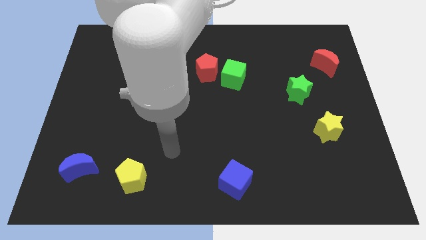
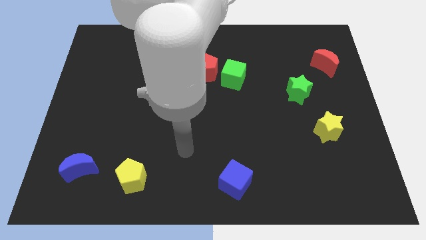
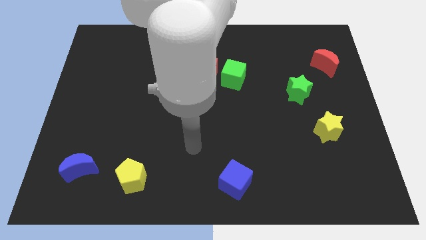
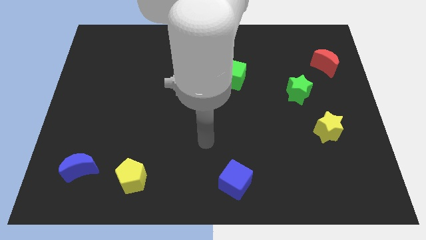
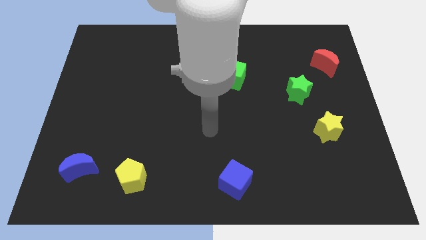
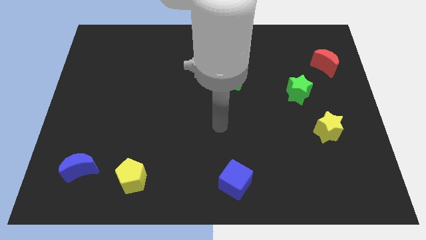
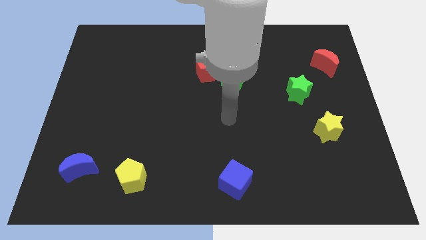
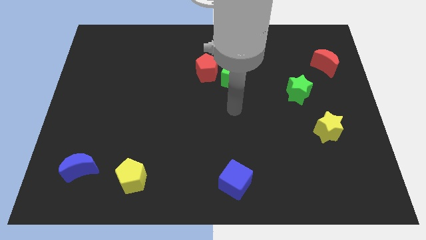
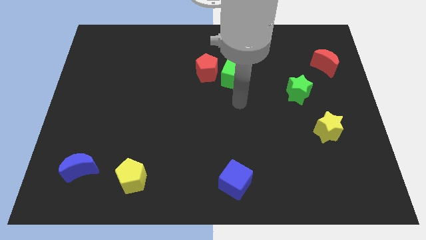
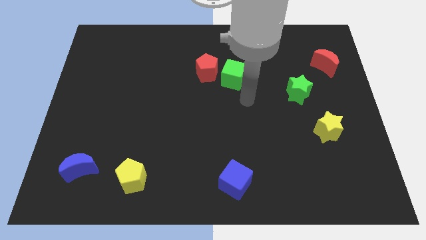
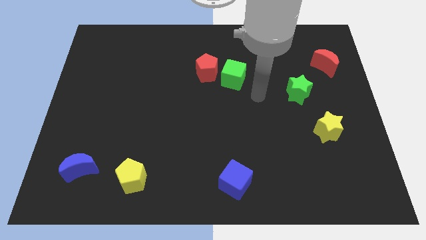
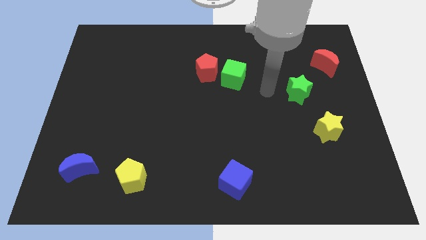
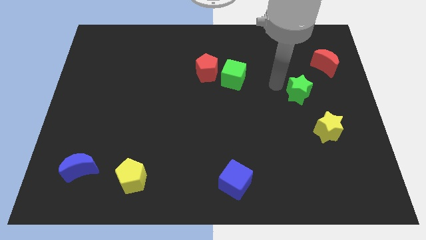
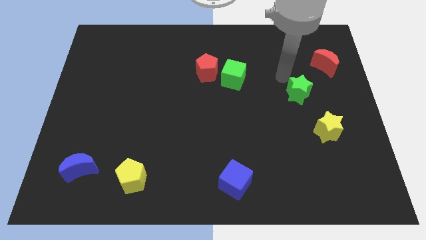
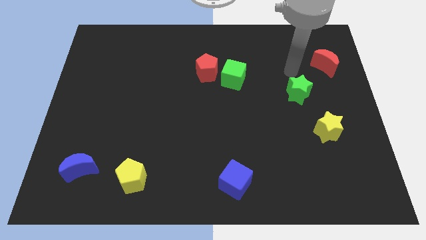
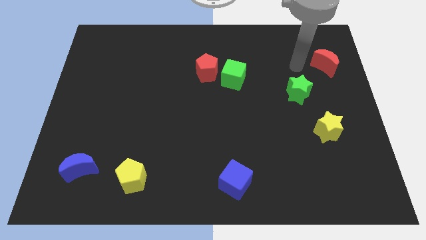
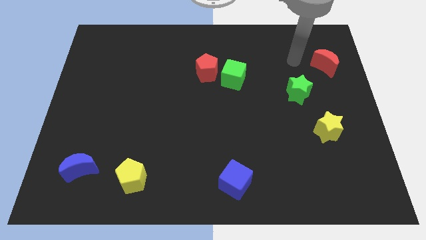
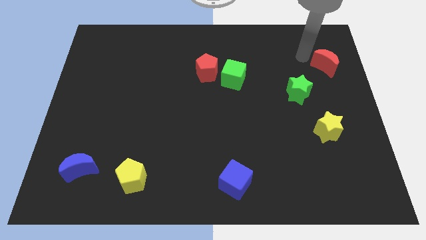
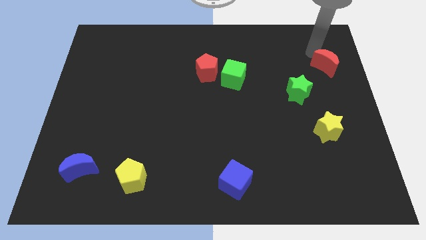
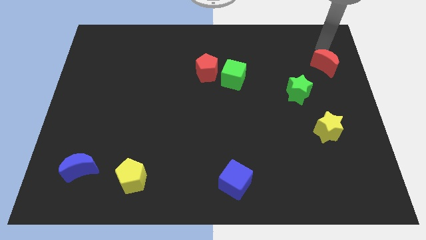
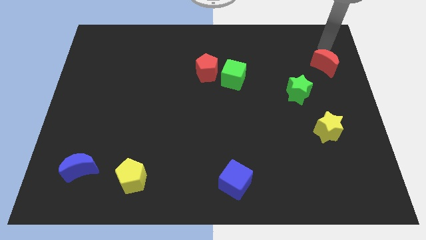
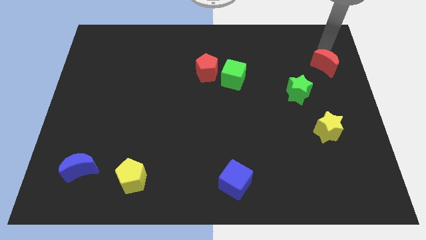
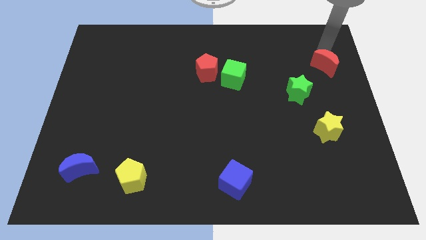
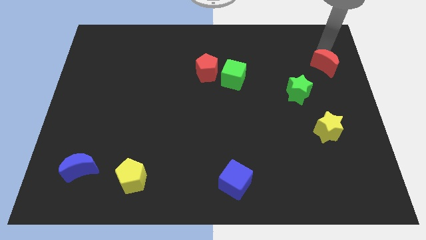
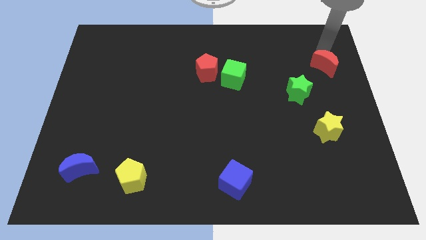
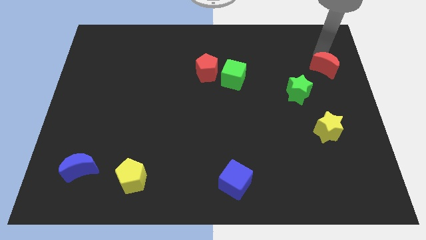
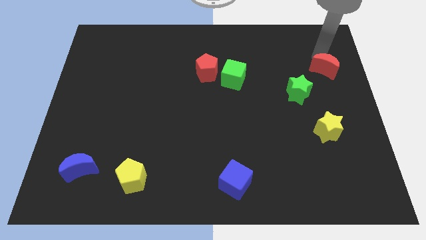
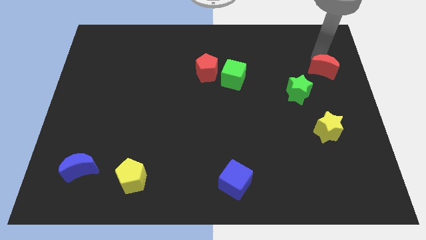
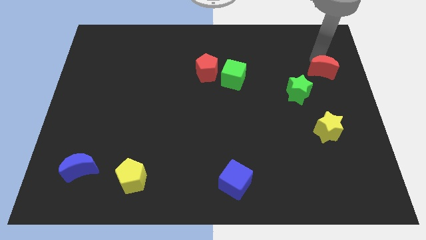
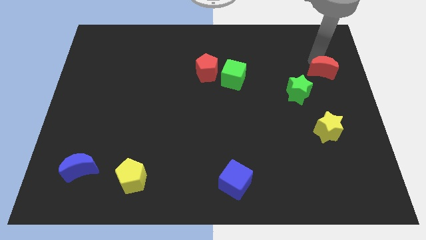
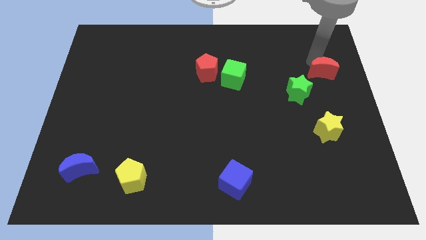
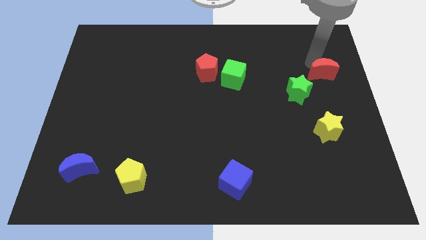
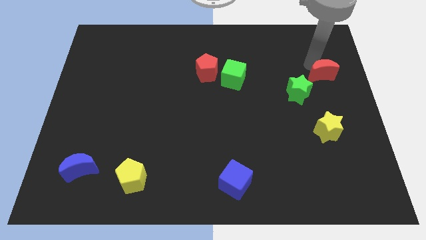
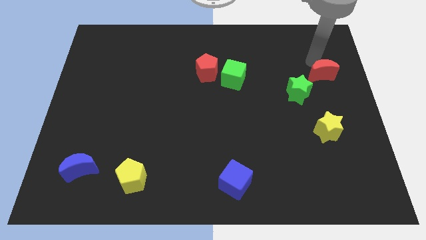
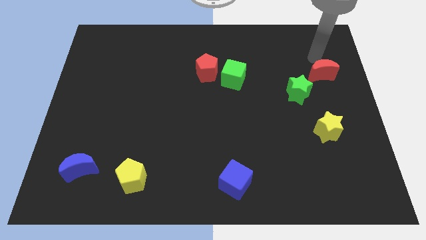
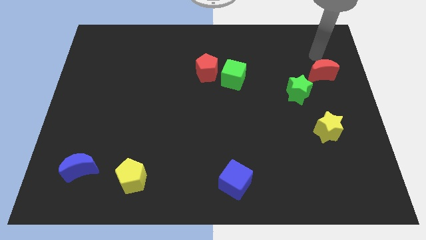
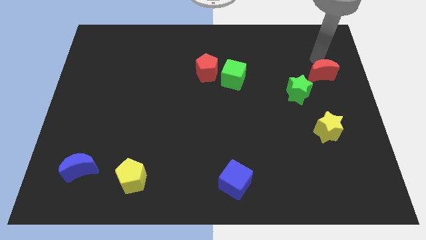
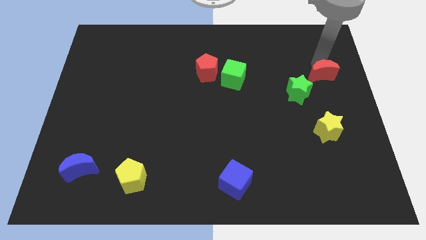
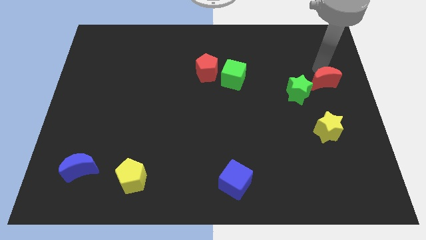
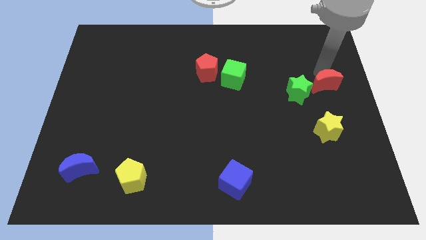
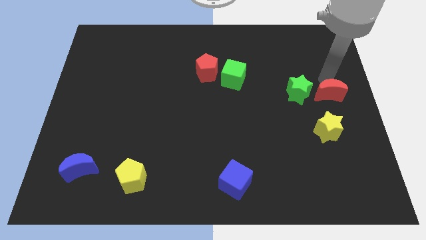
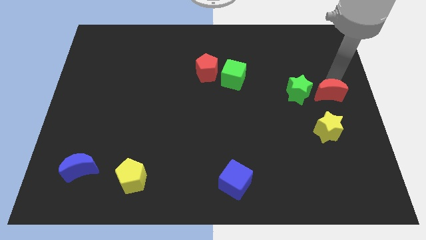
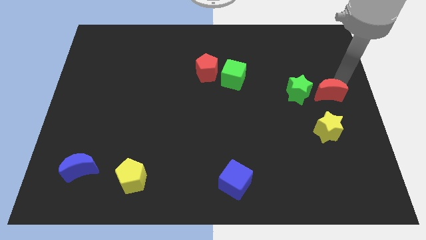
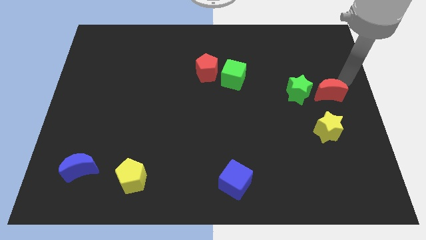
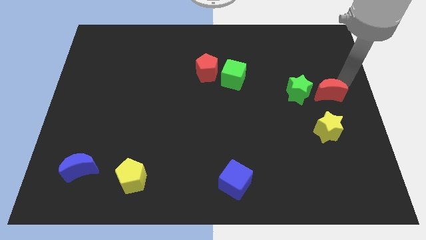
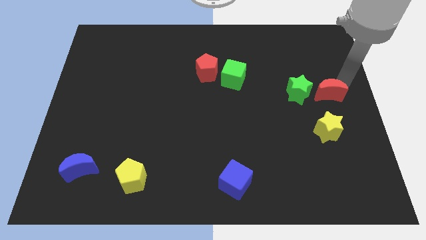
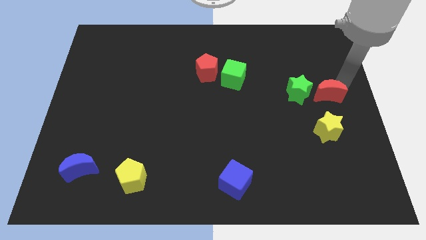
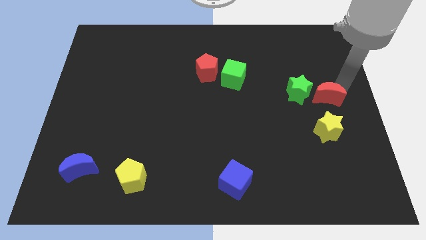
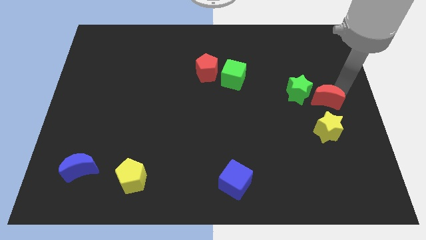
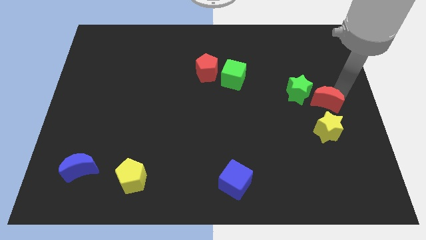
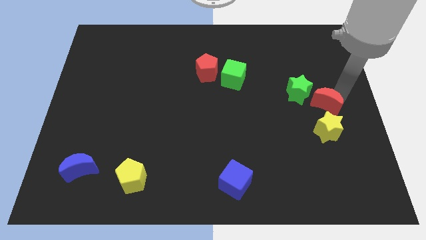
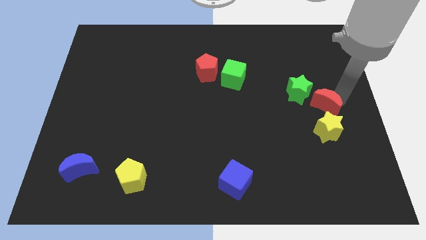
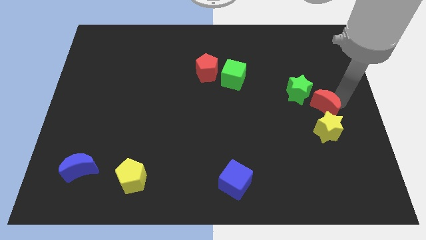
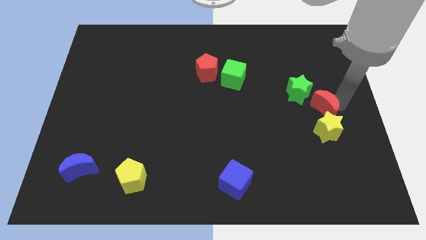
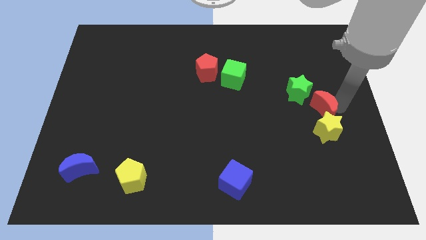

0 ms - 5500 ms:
push the red moon to the top left of the yellow star

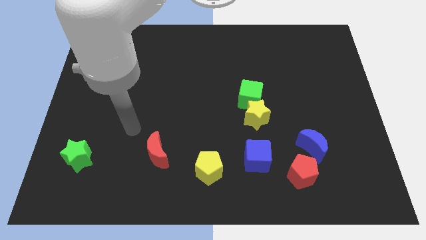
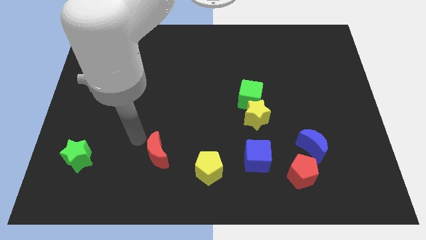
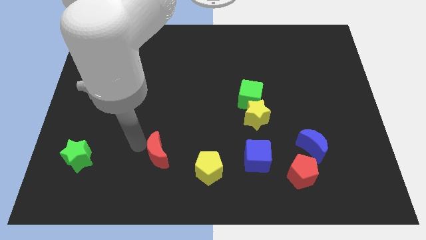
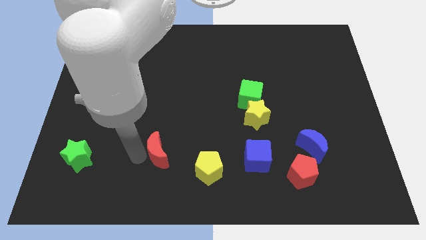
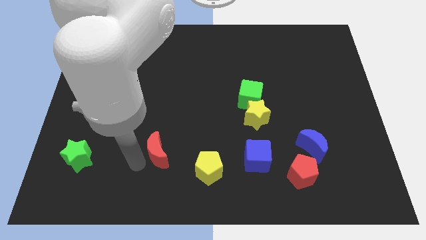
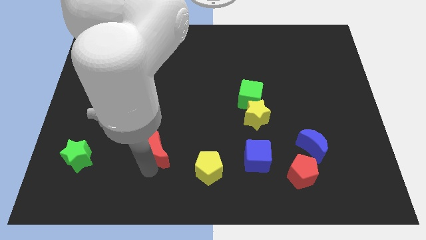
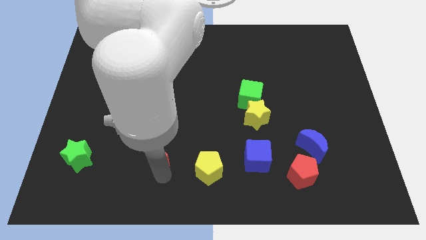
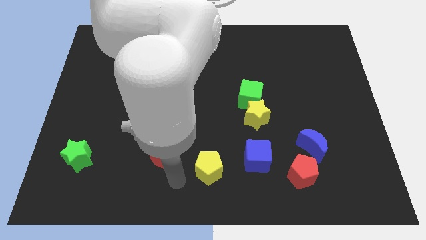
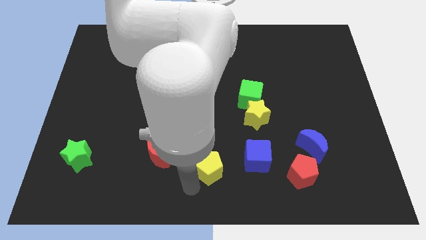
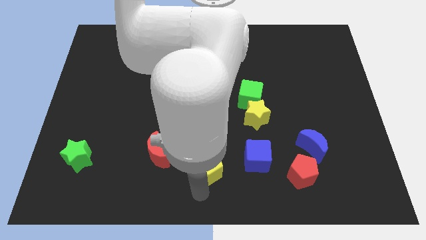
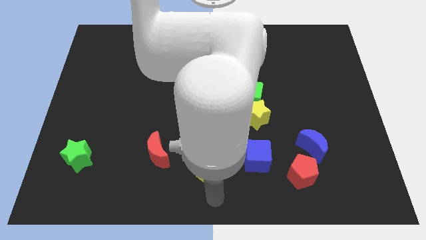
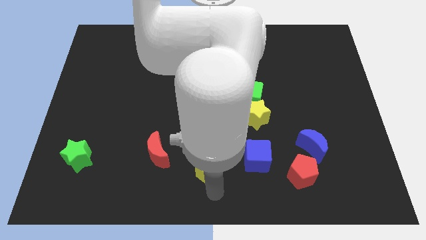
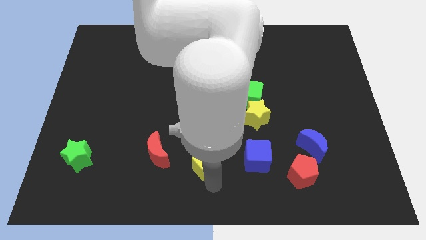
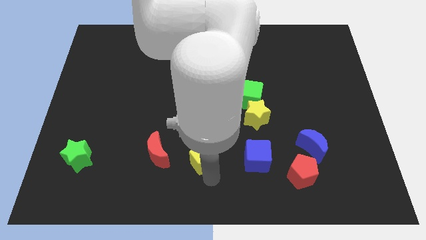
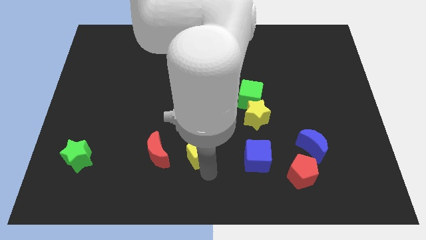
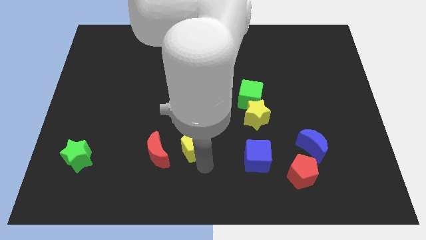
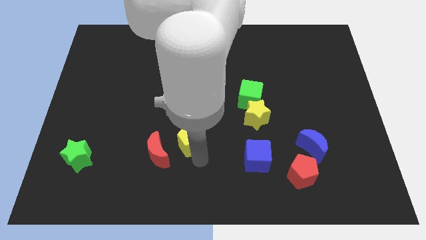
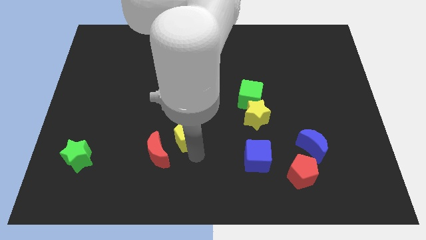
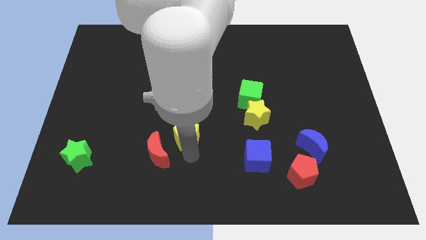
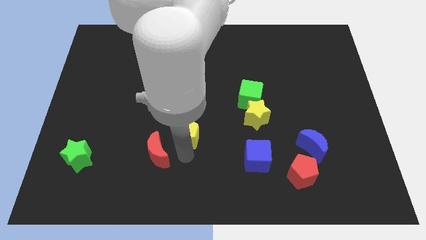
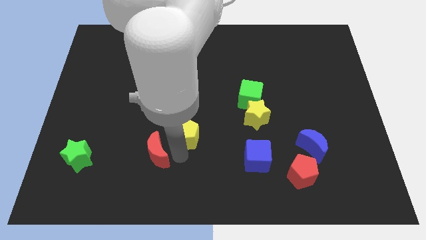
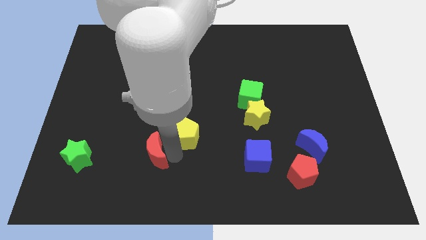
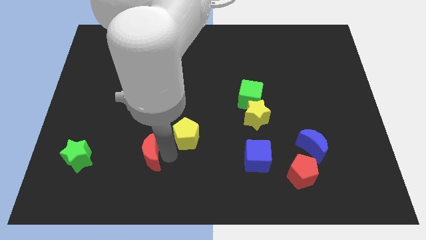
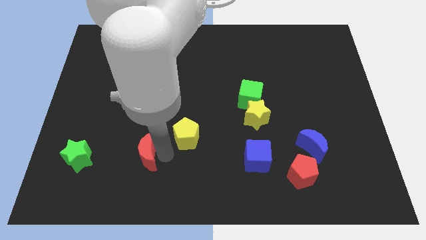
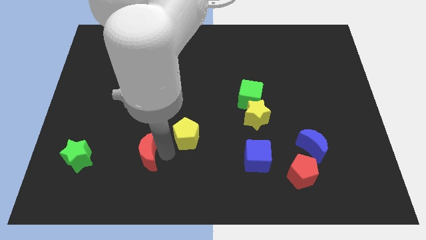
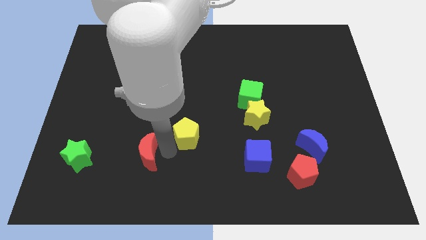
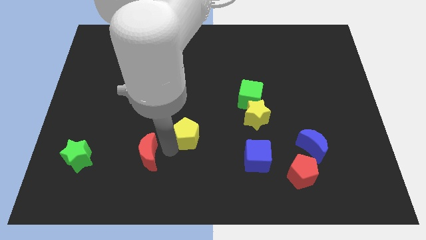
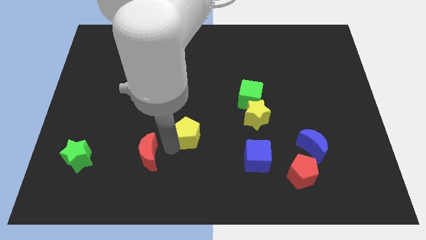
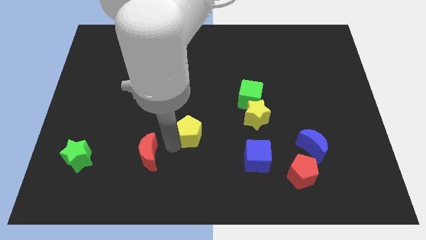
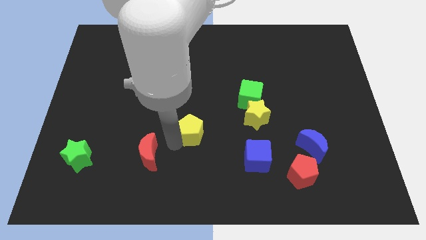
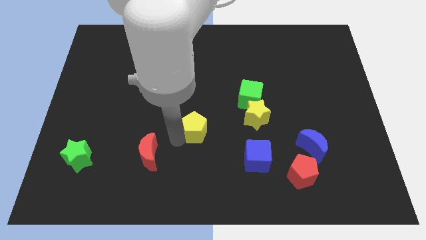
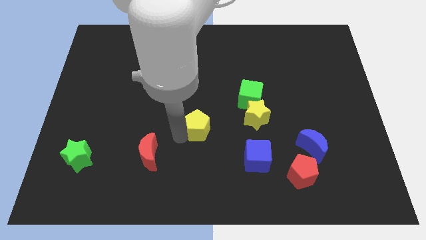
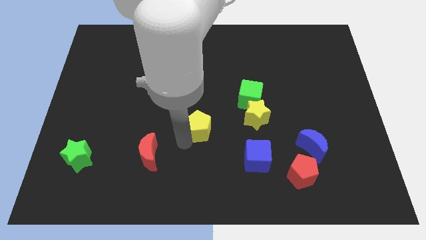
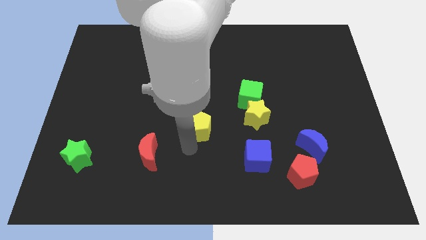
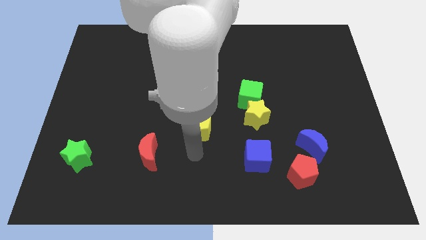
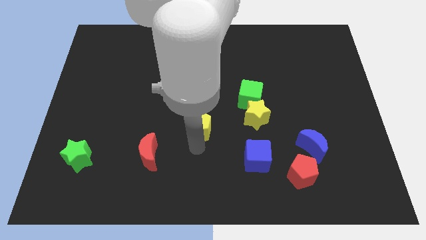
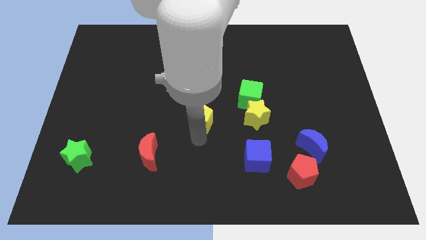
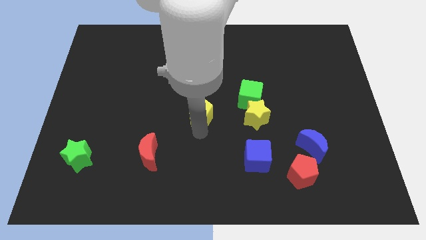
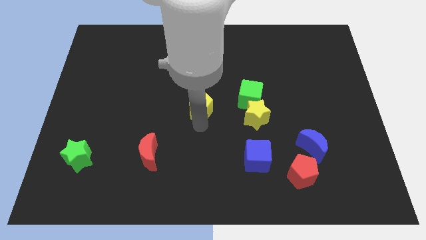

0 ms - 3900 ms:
move the yellow pentagon just left of the green cube
